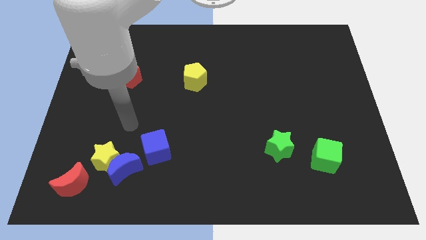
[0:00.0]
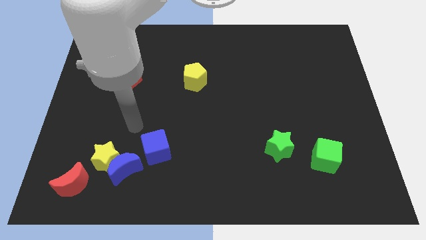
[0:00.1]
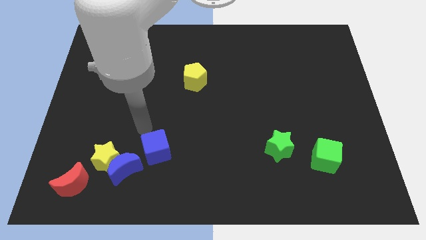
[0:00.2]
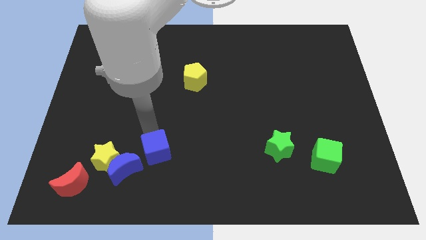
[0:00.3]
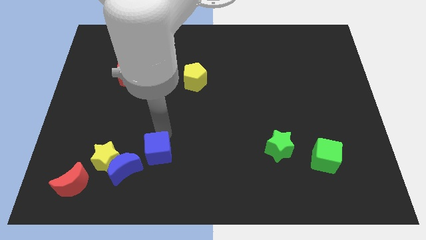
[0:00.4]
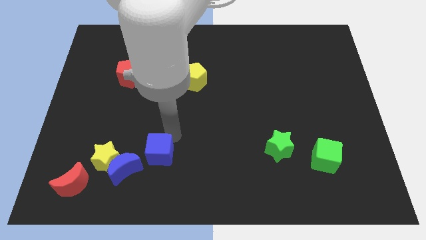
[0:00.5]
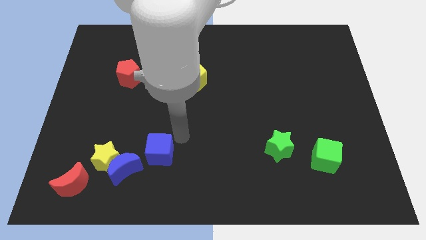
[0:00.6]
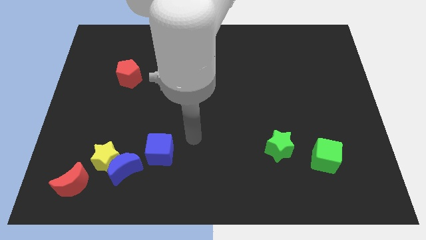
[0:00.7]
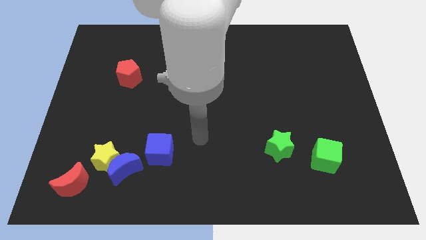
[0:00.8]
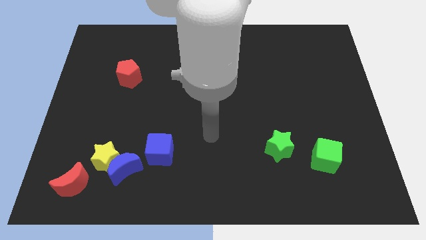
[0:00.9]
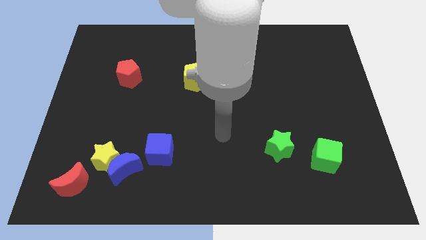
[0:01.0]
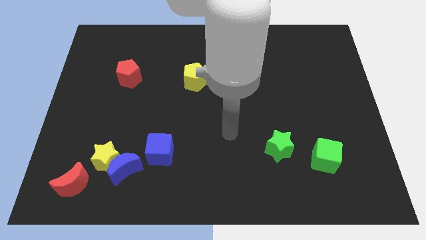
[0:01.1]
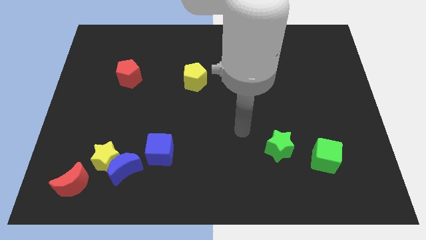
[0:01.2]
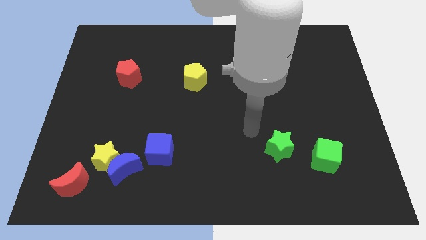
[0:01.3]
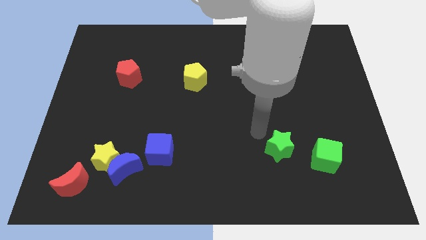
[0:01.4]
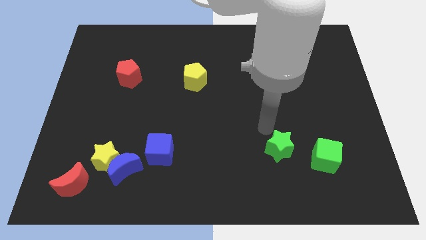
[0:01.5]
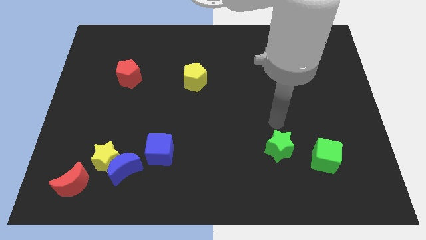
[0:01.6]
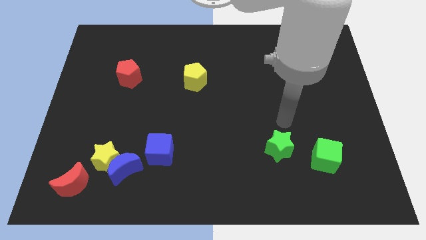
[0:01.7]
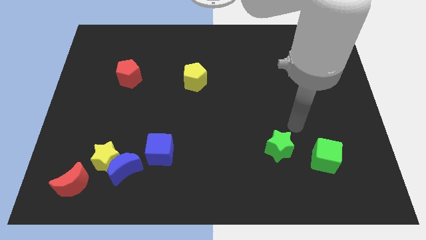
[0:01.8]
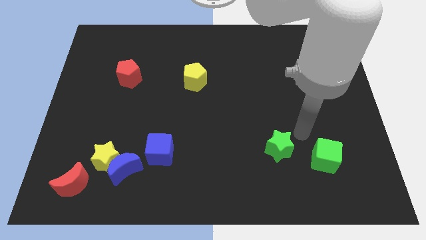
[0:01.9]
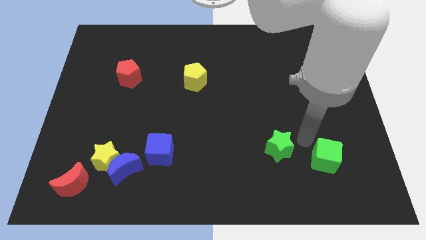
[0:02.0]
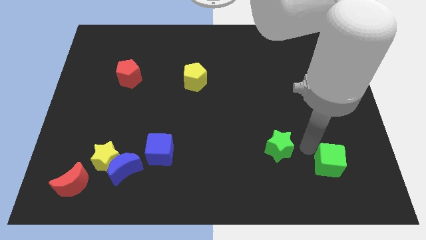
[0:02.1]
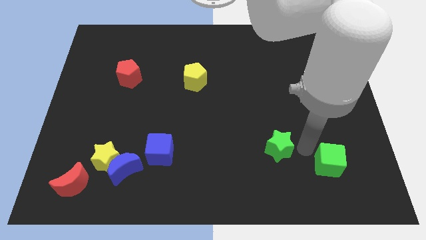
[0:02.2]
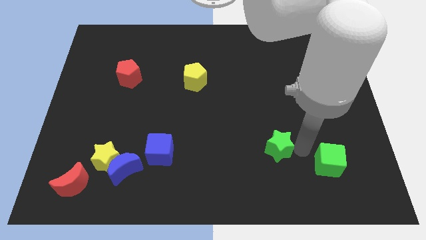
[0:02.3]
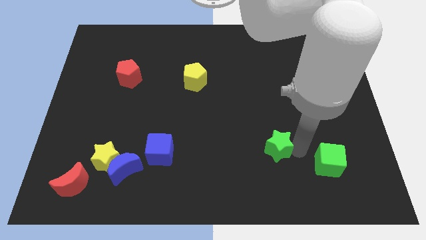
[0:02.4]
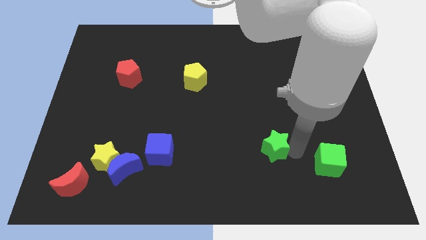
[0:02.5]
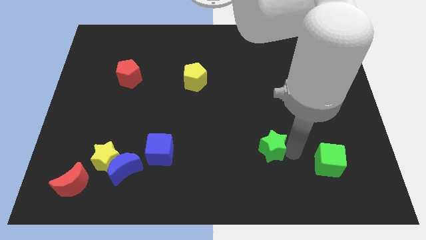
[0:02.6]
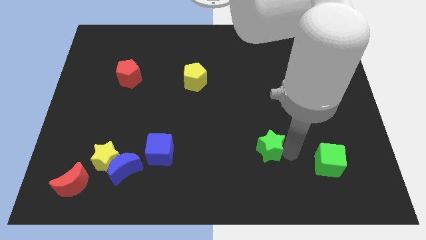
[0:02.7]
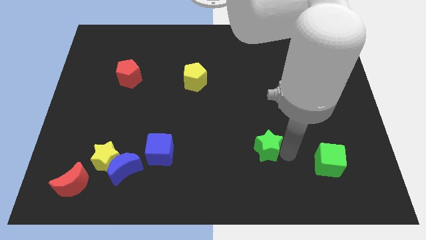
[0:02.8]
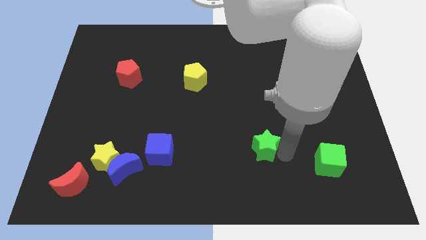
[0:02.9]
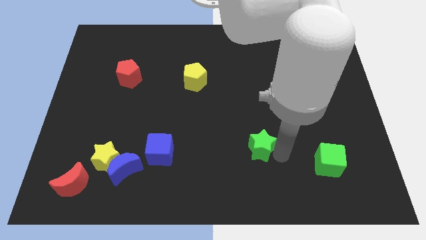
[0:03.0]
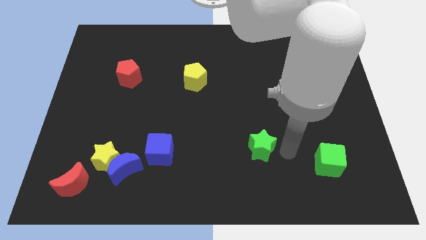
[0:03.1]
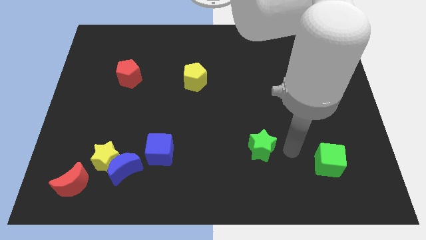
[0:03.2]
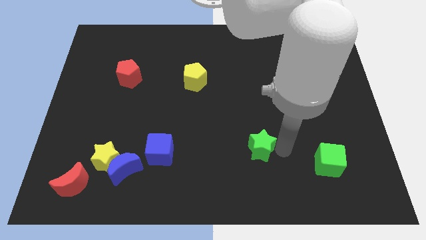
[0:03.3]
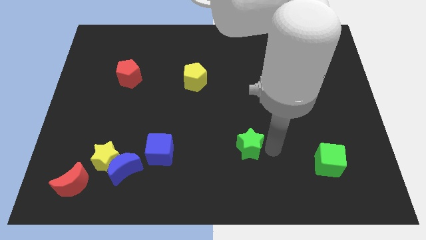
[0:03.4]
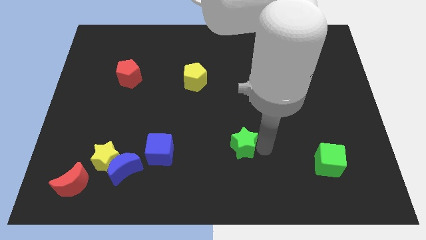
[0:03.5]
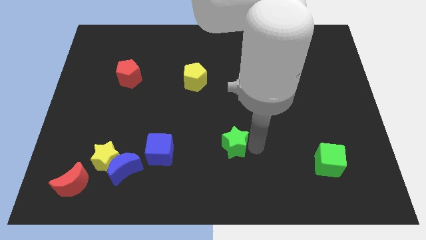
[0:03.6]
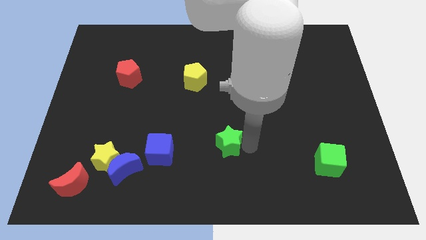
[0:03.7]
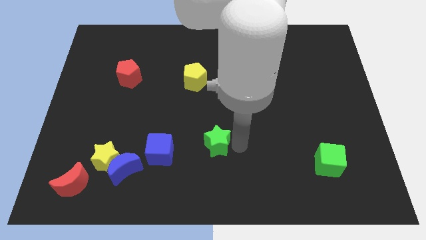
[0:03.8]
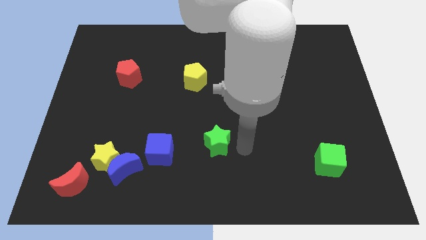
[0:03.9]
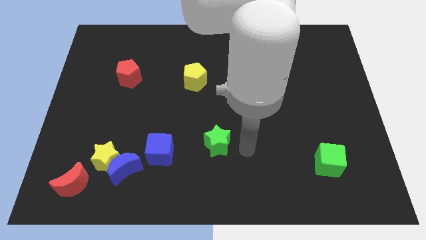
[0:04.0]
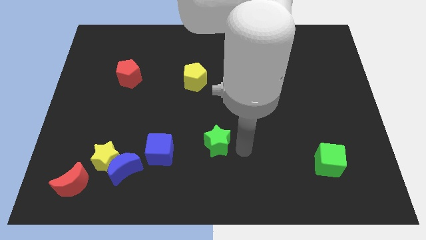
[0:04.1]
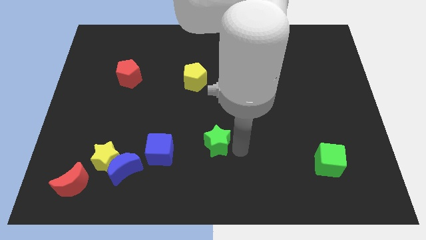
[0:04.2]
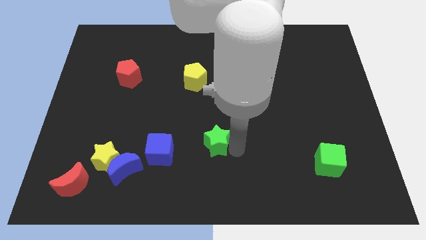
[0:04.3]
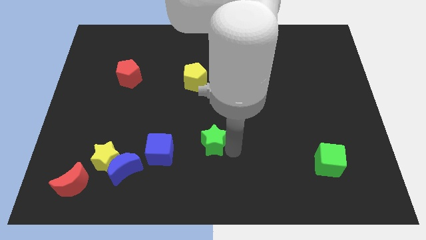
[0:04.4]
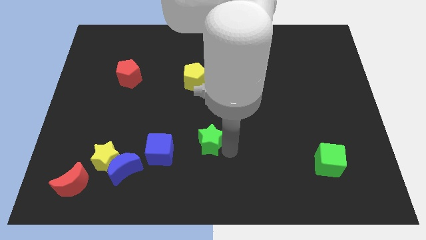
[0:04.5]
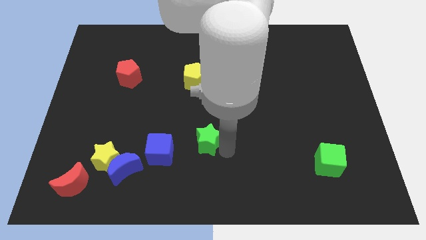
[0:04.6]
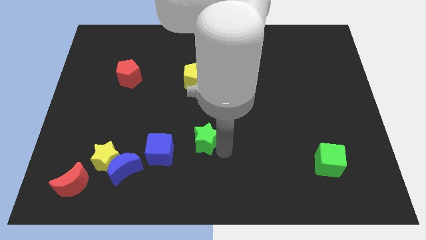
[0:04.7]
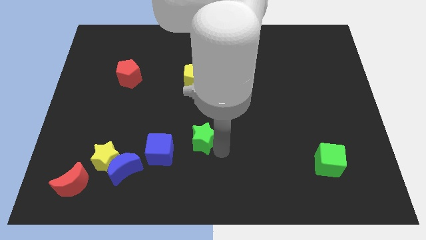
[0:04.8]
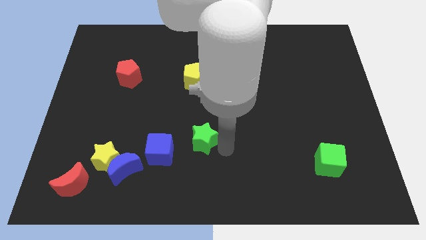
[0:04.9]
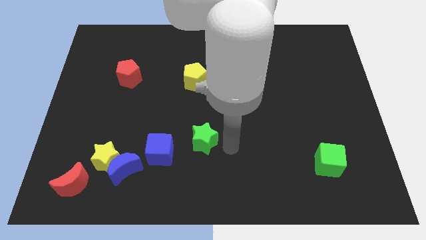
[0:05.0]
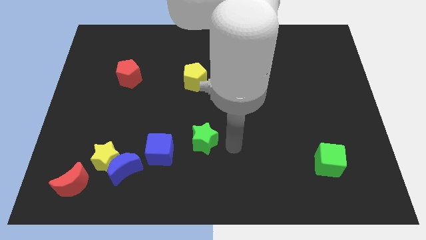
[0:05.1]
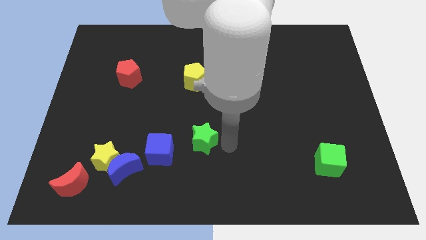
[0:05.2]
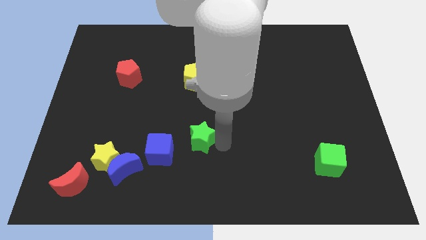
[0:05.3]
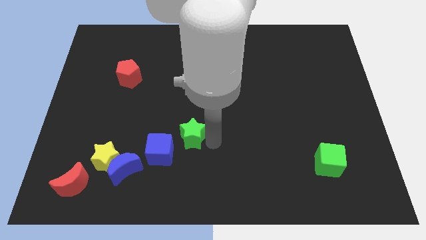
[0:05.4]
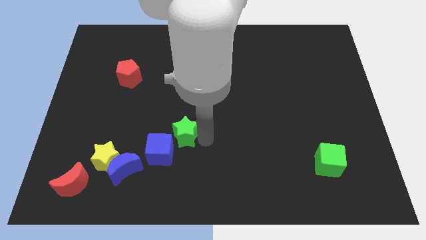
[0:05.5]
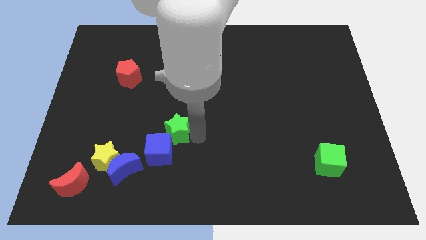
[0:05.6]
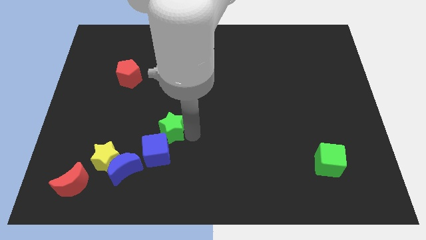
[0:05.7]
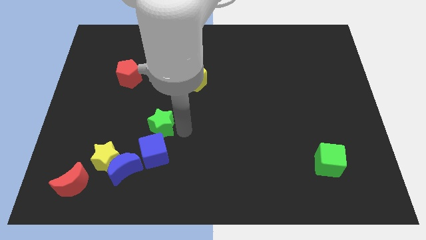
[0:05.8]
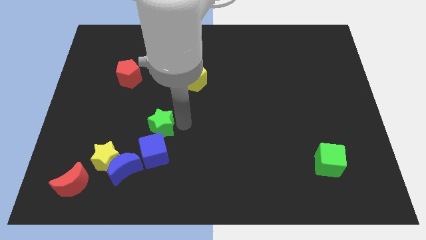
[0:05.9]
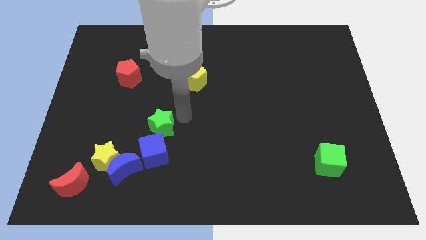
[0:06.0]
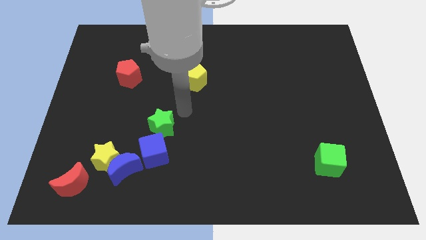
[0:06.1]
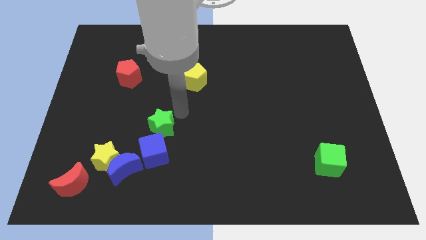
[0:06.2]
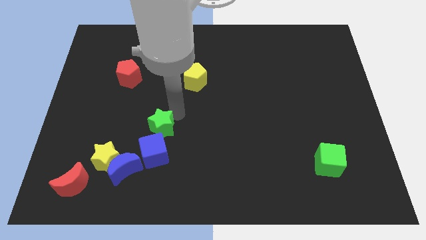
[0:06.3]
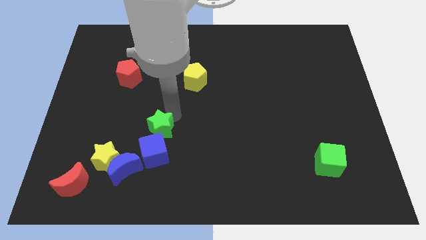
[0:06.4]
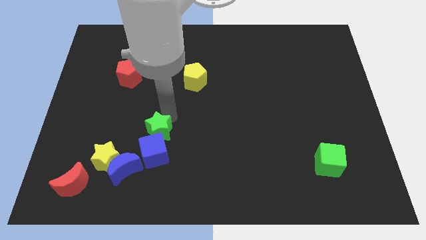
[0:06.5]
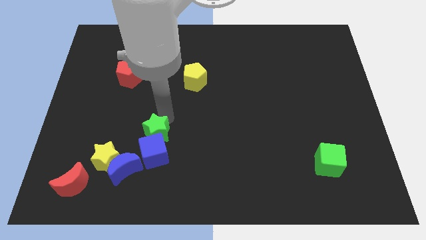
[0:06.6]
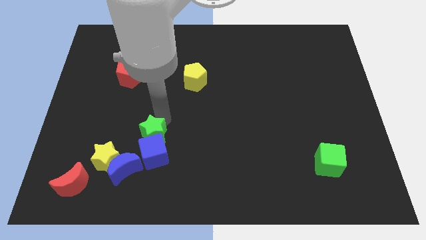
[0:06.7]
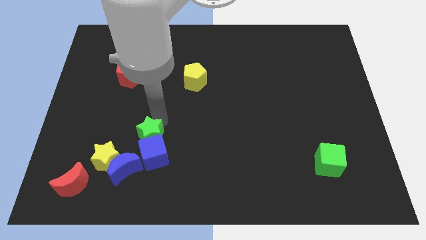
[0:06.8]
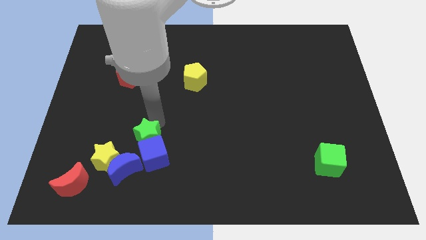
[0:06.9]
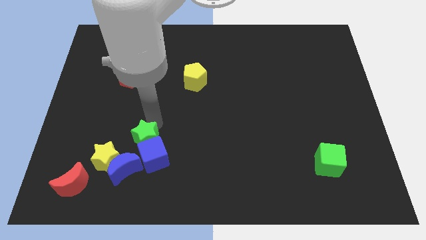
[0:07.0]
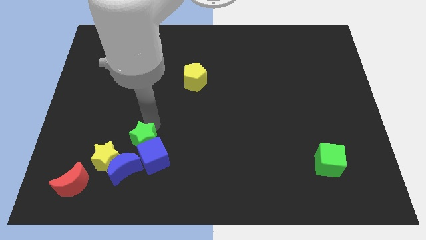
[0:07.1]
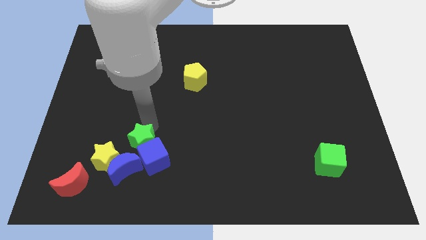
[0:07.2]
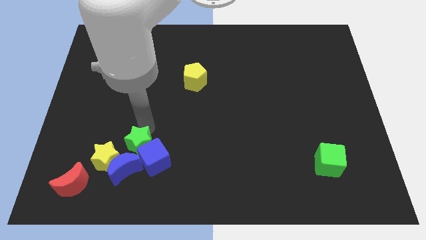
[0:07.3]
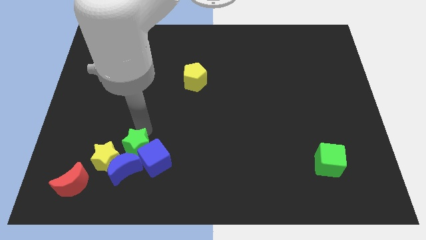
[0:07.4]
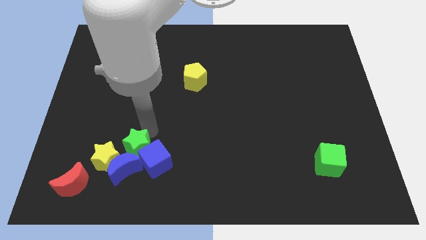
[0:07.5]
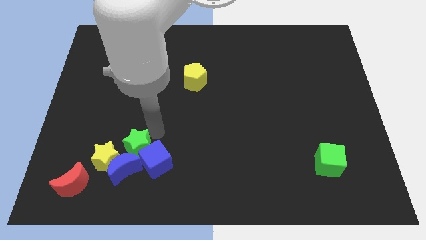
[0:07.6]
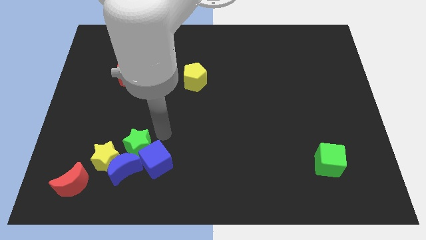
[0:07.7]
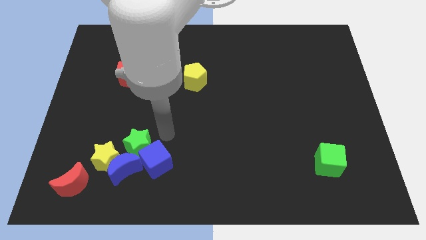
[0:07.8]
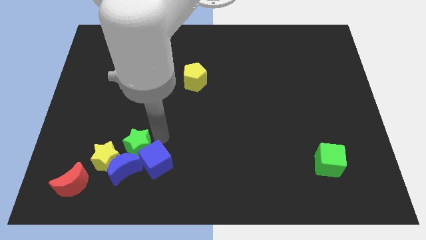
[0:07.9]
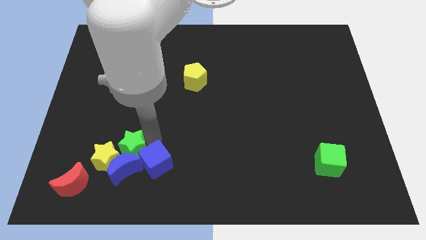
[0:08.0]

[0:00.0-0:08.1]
push the green star close to the yellow star
